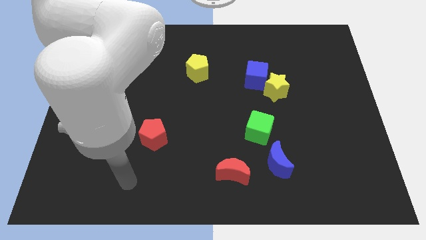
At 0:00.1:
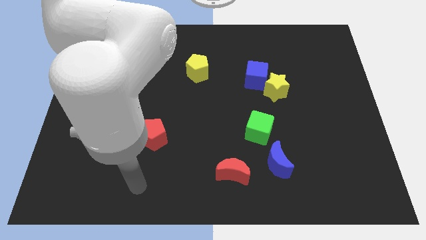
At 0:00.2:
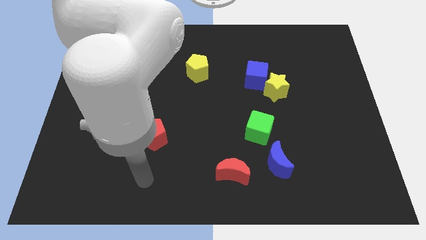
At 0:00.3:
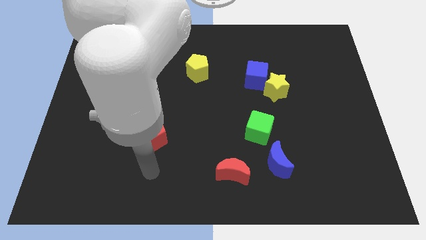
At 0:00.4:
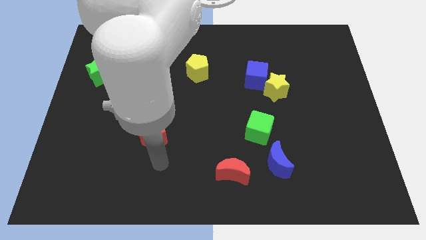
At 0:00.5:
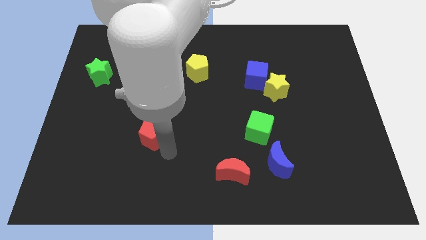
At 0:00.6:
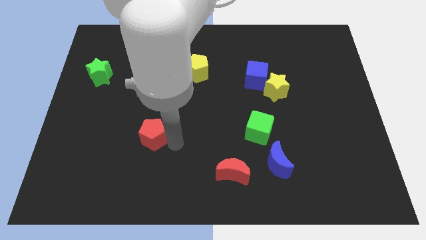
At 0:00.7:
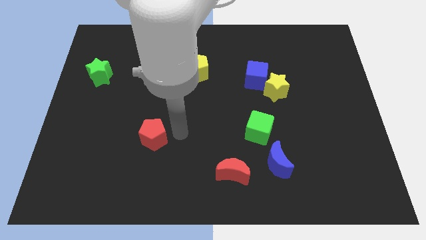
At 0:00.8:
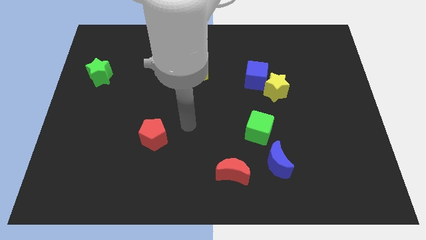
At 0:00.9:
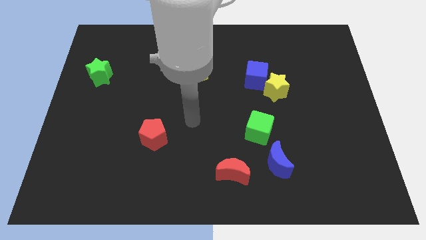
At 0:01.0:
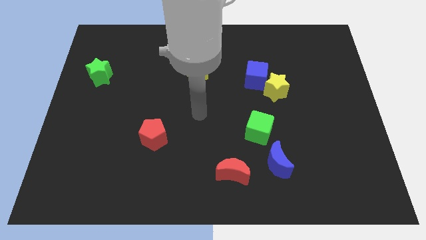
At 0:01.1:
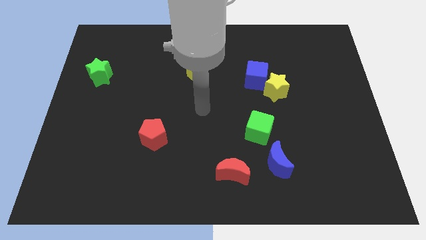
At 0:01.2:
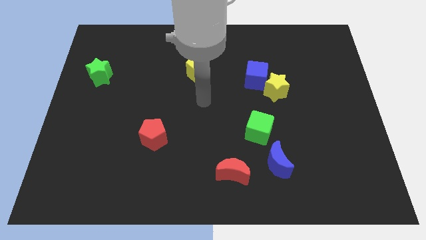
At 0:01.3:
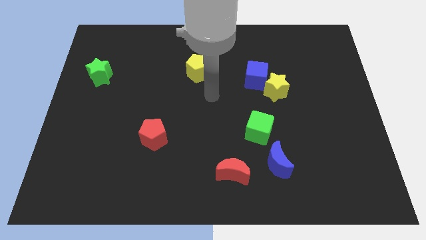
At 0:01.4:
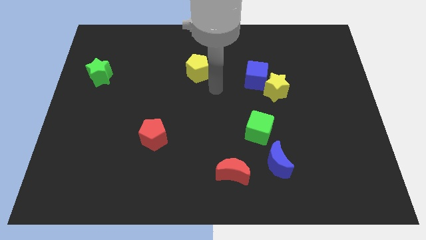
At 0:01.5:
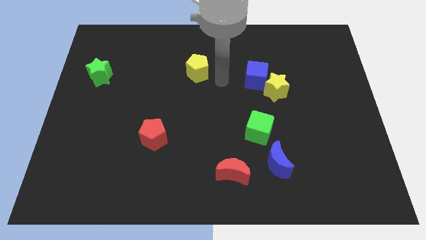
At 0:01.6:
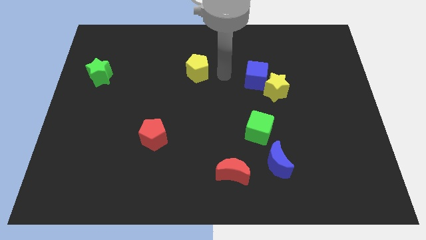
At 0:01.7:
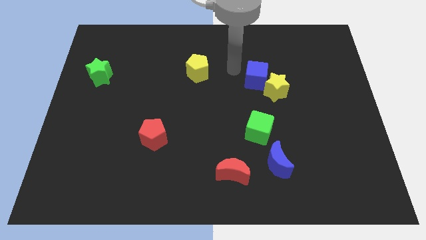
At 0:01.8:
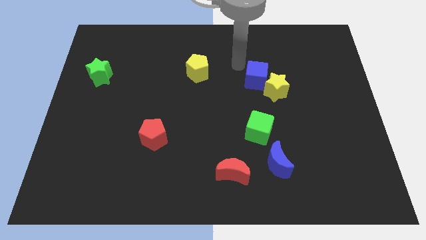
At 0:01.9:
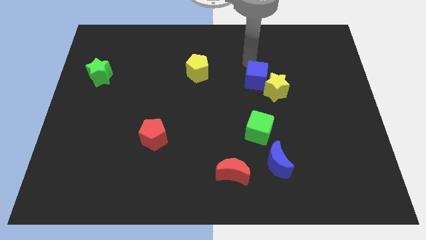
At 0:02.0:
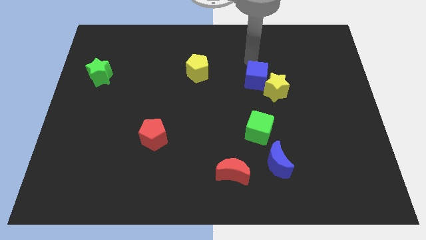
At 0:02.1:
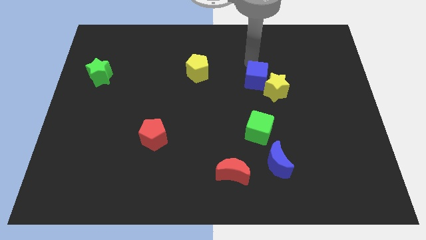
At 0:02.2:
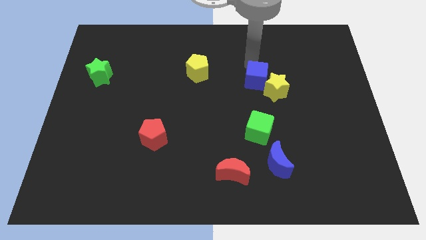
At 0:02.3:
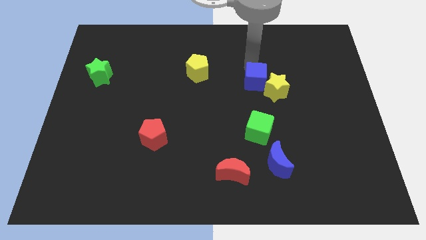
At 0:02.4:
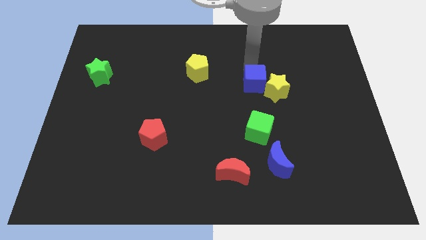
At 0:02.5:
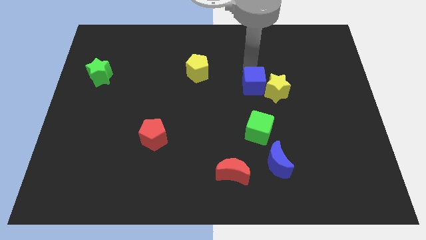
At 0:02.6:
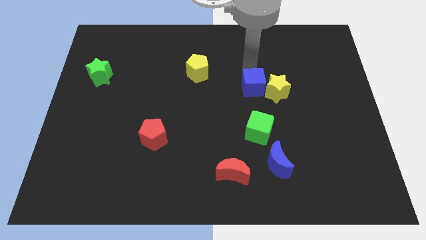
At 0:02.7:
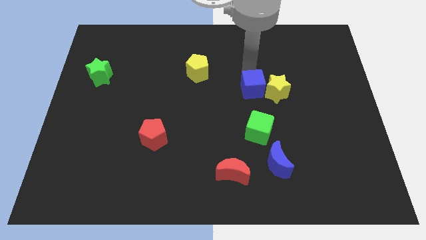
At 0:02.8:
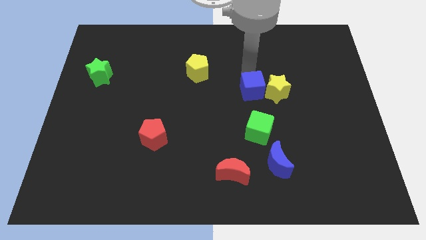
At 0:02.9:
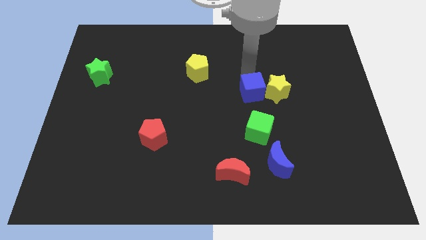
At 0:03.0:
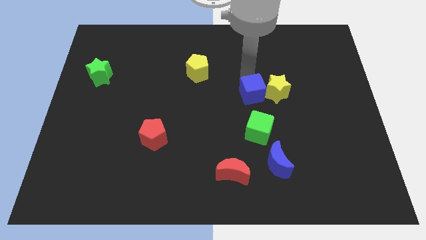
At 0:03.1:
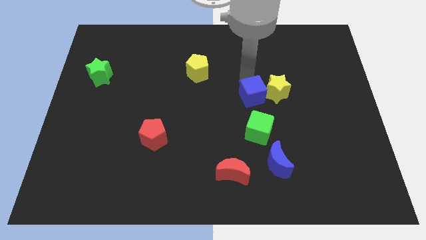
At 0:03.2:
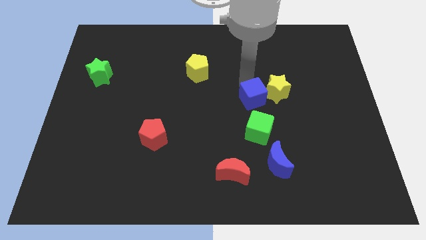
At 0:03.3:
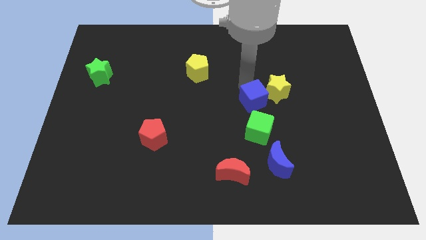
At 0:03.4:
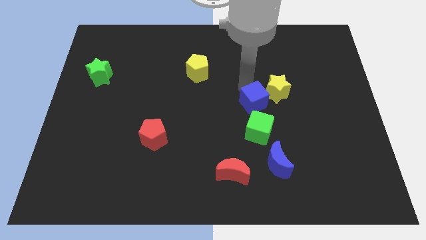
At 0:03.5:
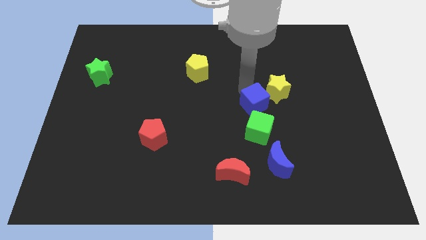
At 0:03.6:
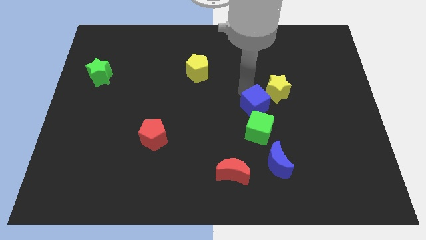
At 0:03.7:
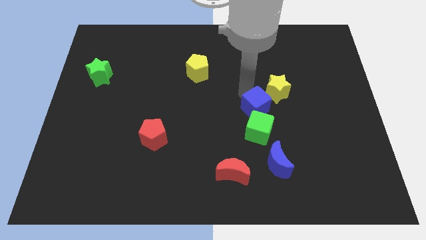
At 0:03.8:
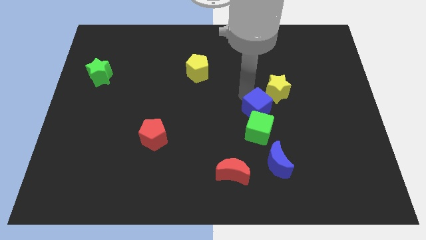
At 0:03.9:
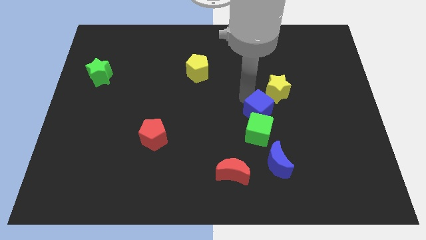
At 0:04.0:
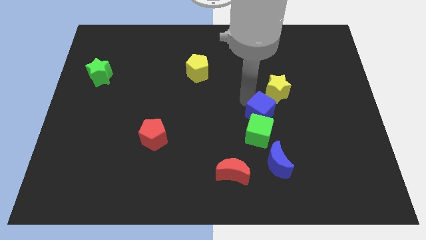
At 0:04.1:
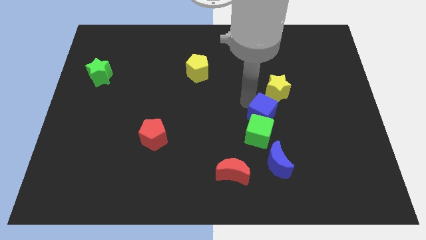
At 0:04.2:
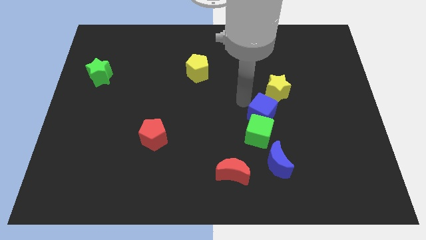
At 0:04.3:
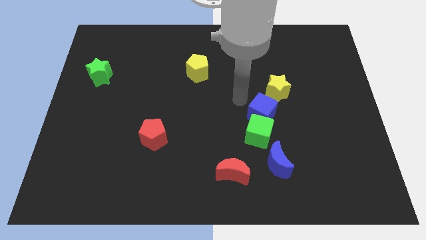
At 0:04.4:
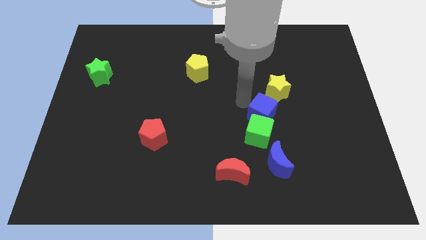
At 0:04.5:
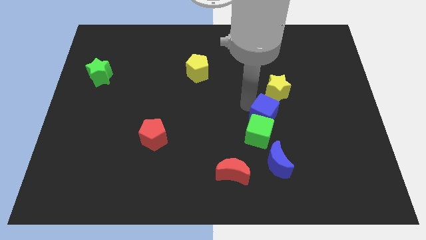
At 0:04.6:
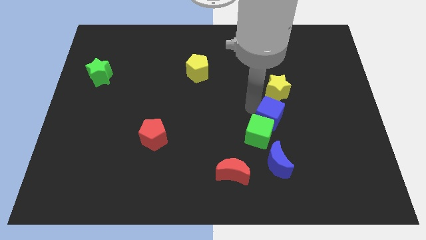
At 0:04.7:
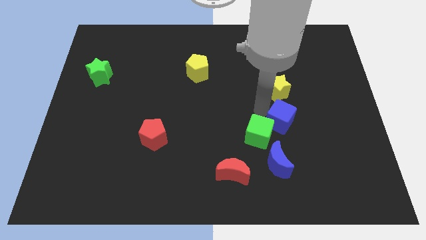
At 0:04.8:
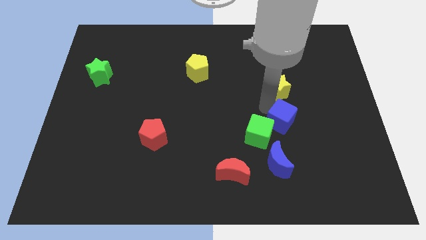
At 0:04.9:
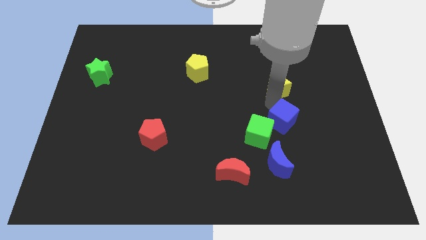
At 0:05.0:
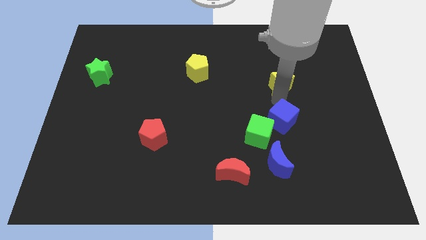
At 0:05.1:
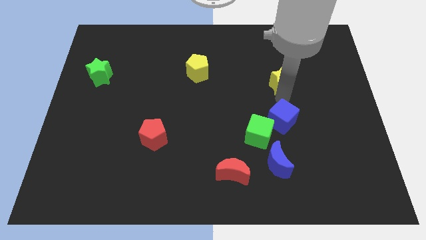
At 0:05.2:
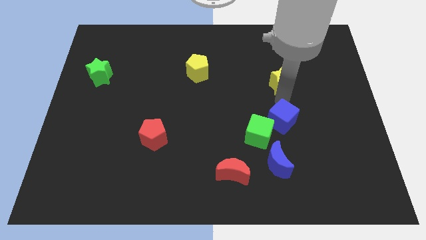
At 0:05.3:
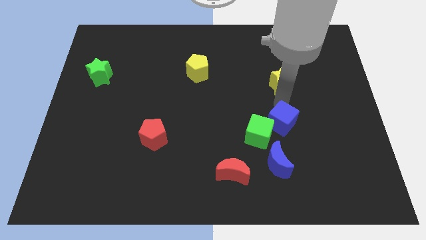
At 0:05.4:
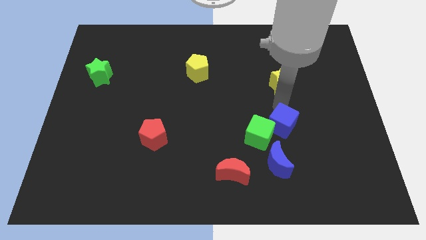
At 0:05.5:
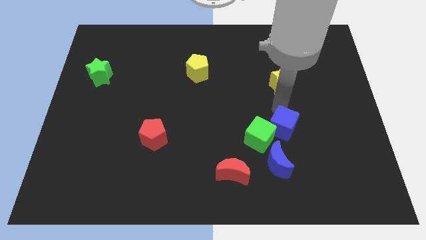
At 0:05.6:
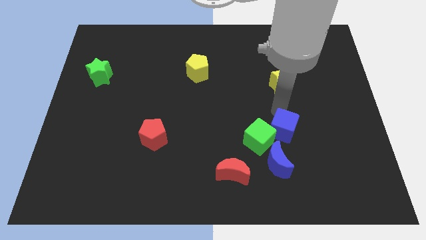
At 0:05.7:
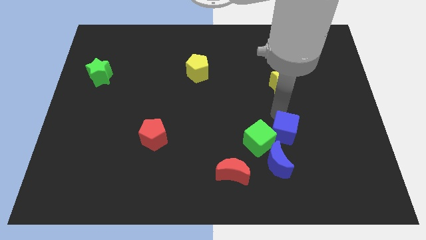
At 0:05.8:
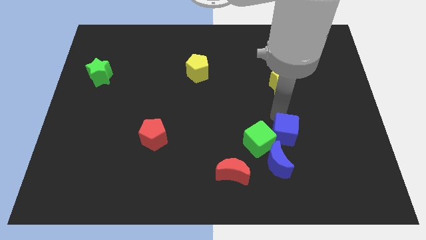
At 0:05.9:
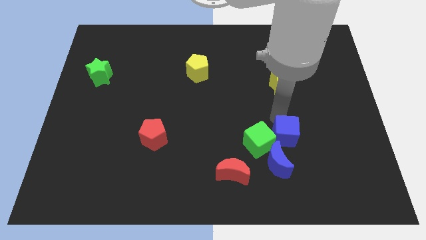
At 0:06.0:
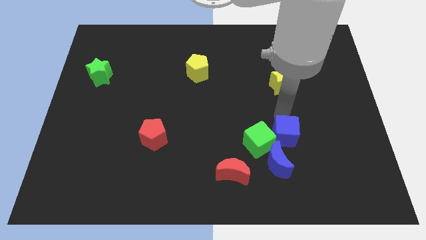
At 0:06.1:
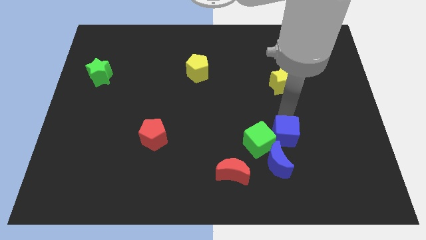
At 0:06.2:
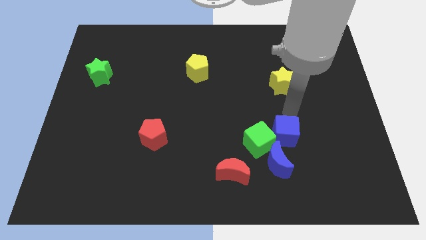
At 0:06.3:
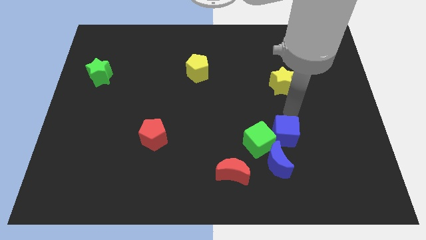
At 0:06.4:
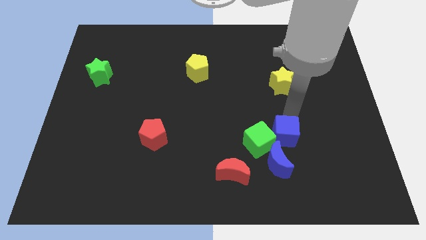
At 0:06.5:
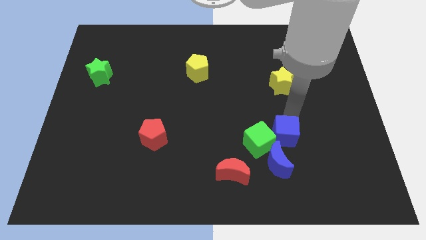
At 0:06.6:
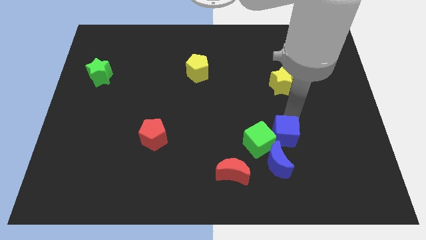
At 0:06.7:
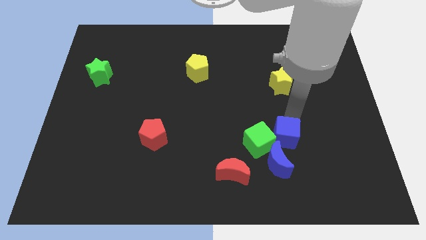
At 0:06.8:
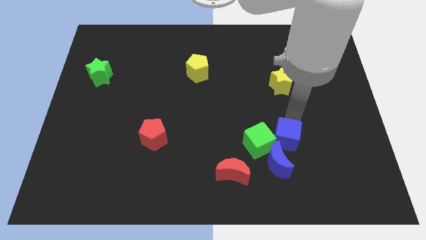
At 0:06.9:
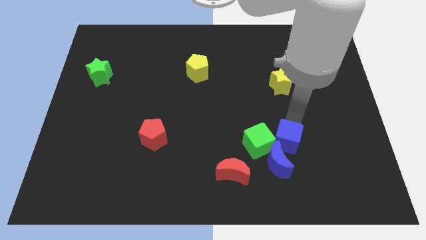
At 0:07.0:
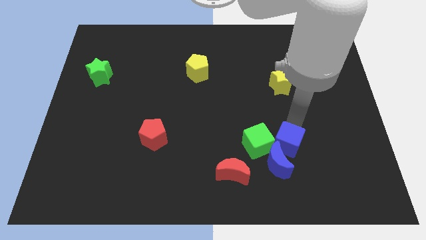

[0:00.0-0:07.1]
move the blue cube next to the blue moon
